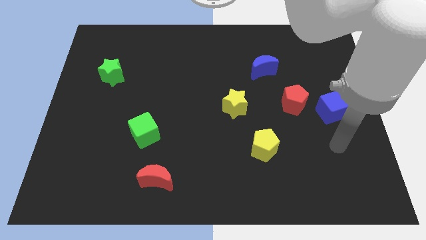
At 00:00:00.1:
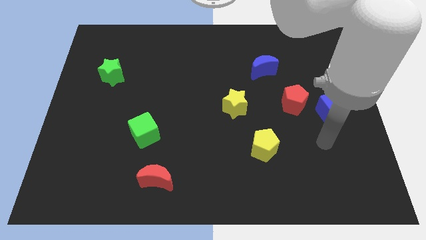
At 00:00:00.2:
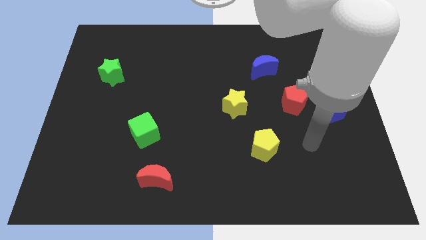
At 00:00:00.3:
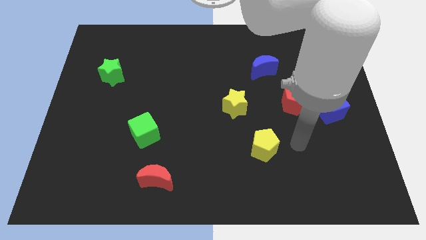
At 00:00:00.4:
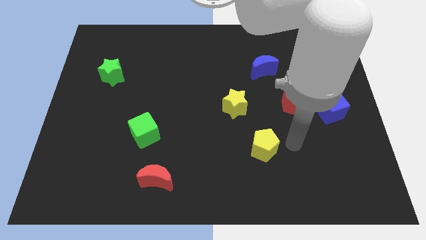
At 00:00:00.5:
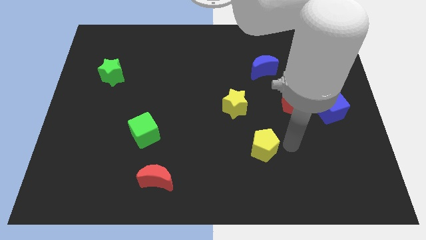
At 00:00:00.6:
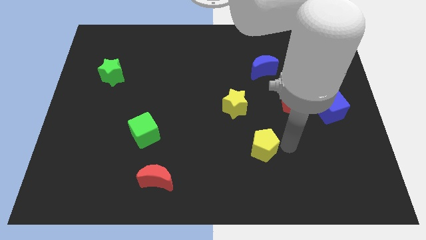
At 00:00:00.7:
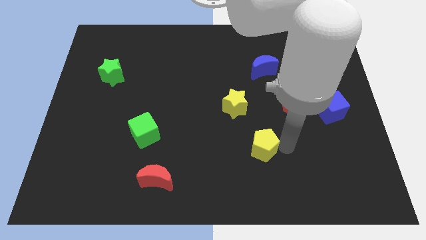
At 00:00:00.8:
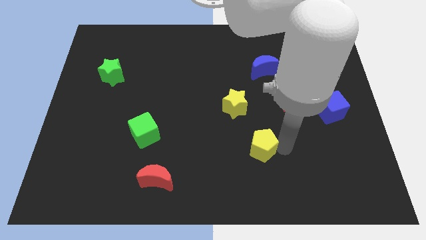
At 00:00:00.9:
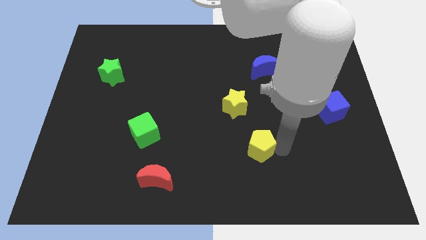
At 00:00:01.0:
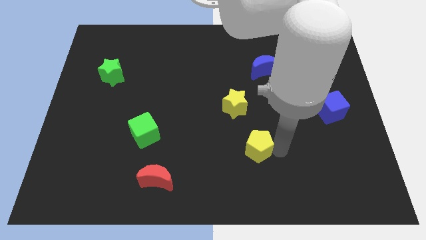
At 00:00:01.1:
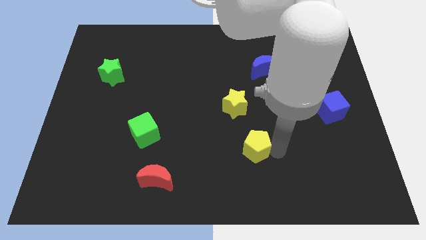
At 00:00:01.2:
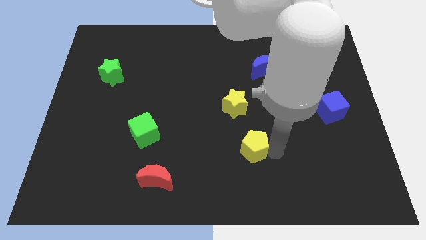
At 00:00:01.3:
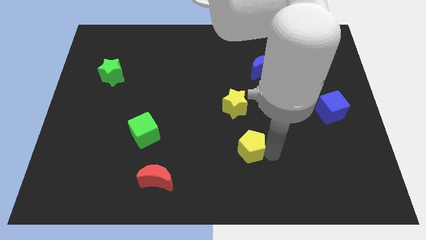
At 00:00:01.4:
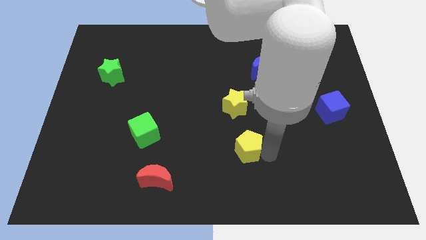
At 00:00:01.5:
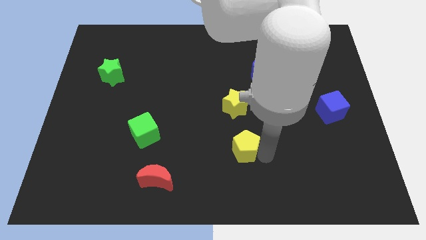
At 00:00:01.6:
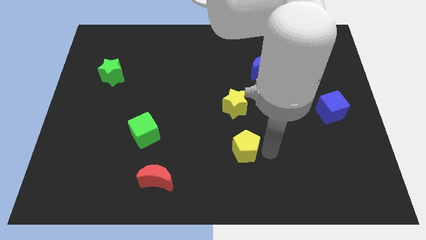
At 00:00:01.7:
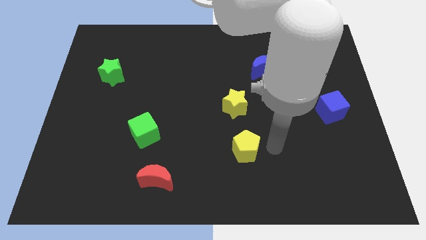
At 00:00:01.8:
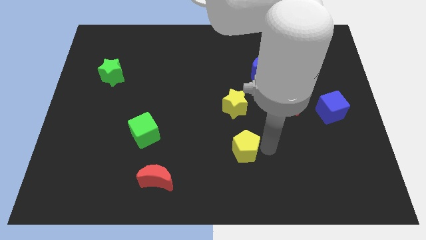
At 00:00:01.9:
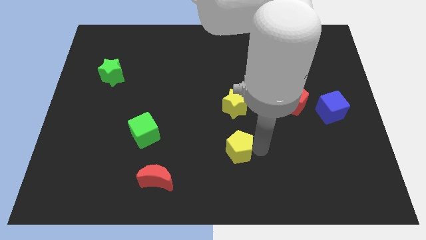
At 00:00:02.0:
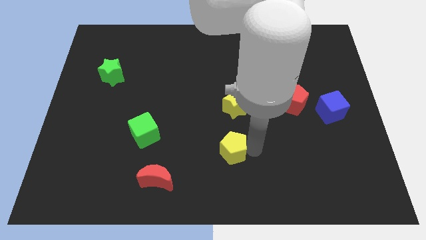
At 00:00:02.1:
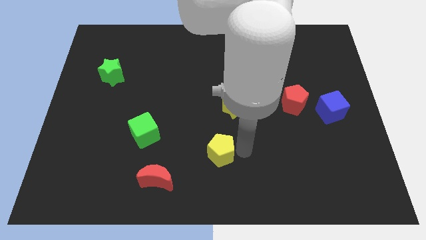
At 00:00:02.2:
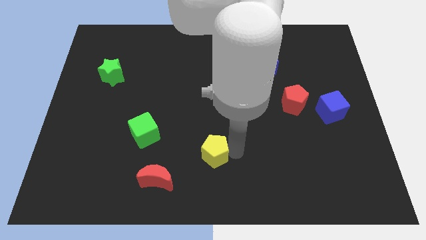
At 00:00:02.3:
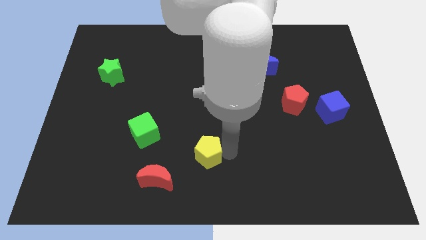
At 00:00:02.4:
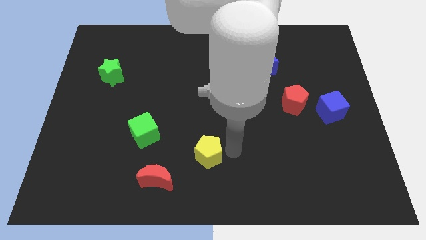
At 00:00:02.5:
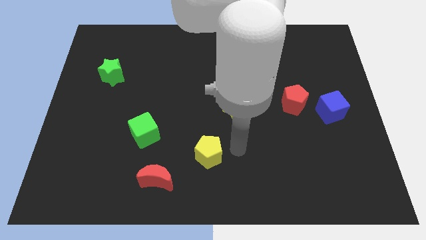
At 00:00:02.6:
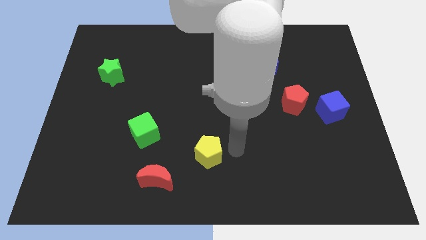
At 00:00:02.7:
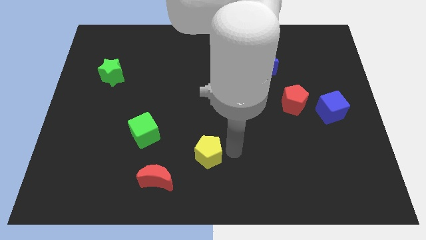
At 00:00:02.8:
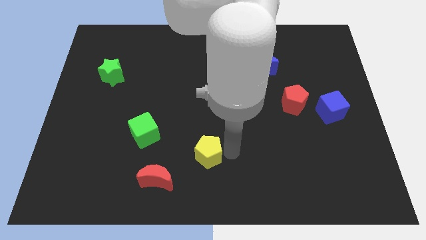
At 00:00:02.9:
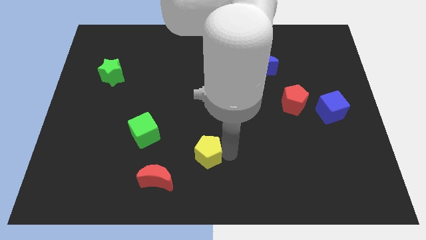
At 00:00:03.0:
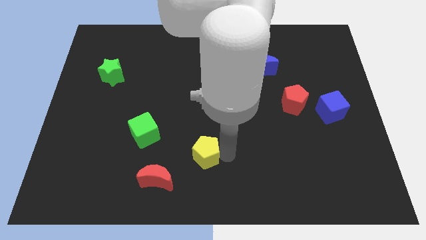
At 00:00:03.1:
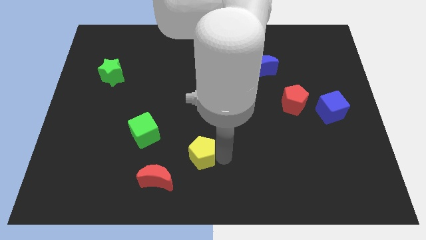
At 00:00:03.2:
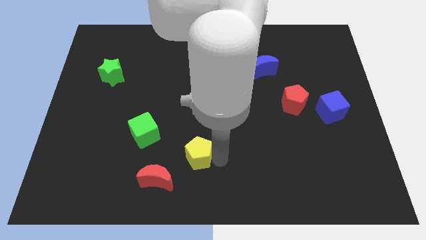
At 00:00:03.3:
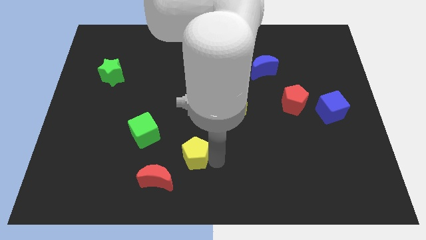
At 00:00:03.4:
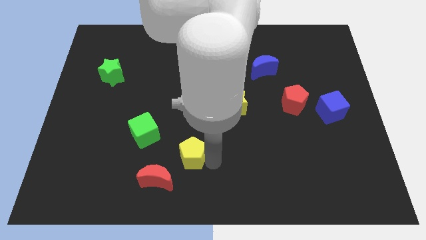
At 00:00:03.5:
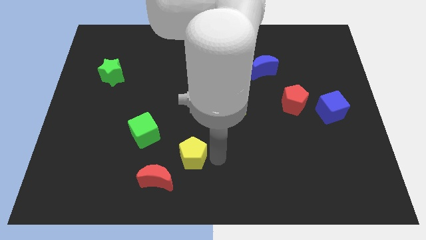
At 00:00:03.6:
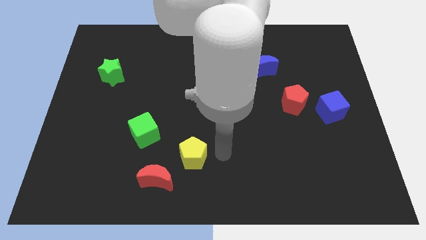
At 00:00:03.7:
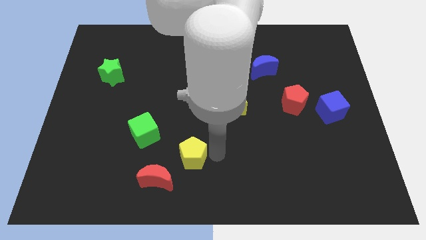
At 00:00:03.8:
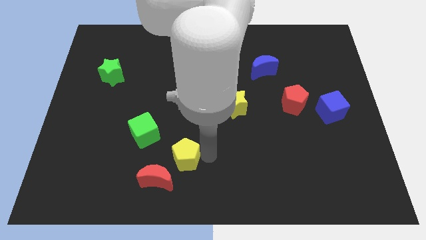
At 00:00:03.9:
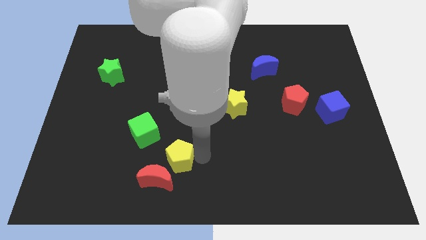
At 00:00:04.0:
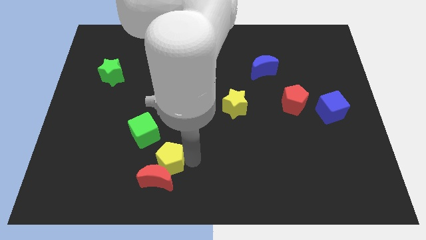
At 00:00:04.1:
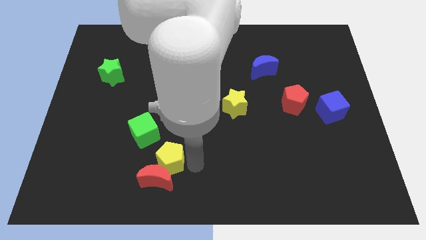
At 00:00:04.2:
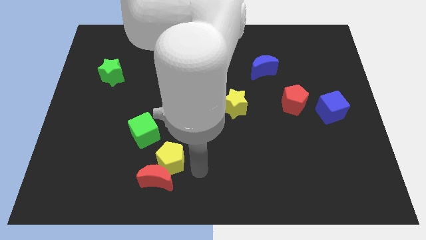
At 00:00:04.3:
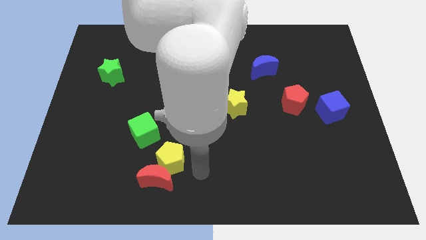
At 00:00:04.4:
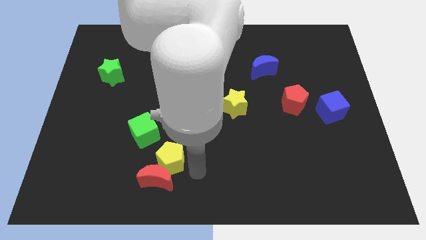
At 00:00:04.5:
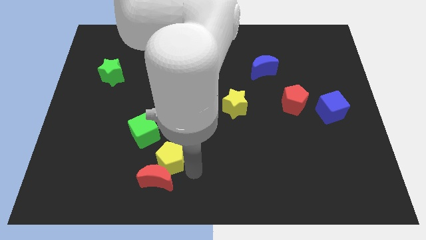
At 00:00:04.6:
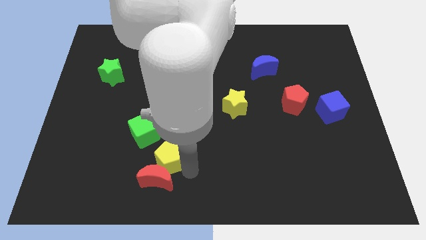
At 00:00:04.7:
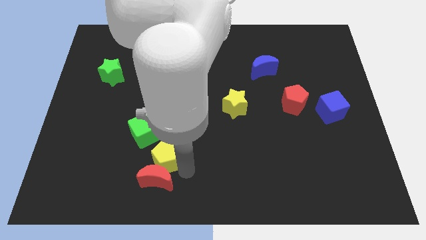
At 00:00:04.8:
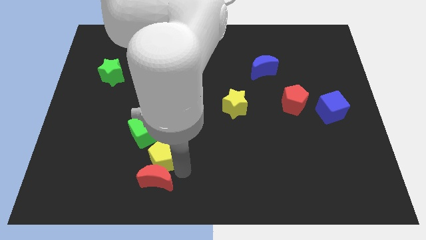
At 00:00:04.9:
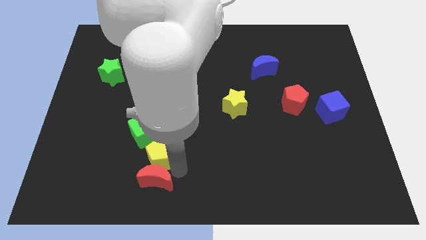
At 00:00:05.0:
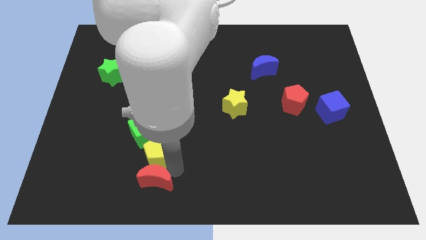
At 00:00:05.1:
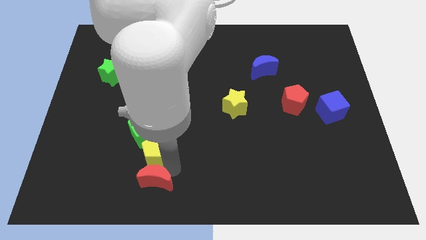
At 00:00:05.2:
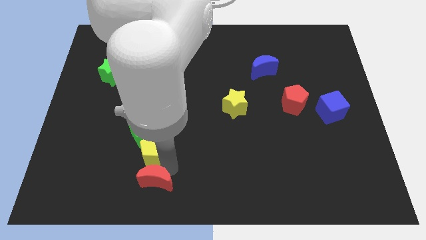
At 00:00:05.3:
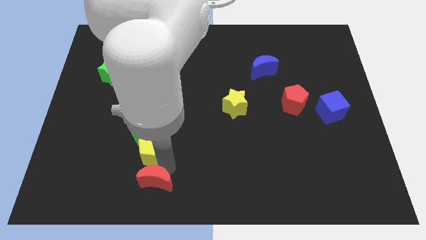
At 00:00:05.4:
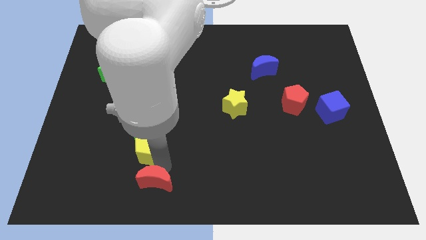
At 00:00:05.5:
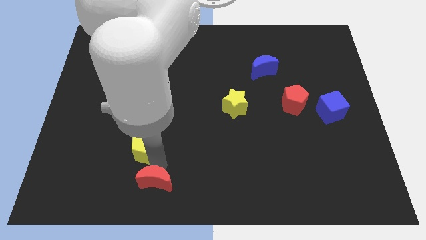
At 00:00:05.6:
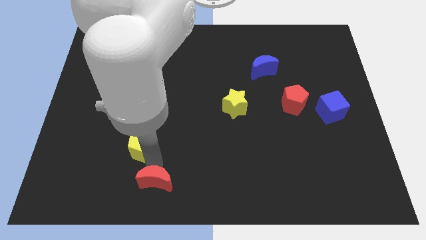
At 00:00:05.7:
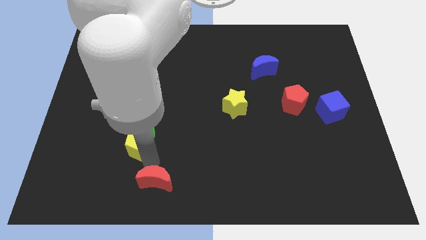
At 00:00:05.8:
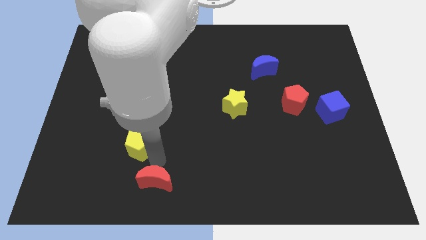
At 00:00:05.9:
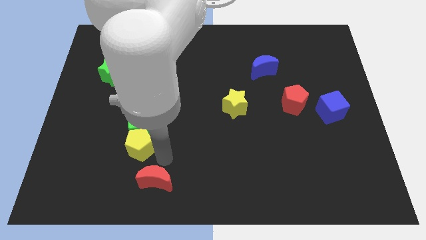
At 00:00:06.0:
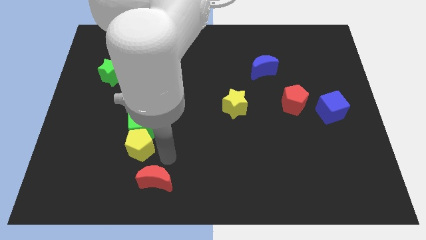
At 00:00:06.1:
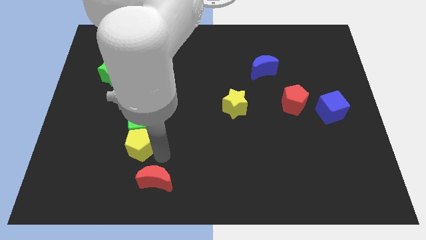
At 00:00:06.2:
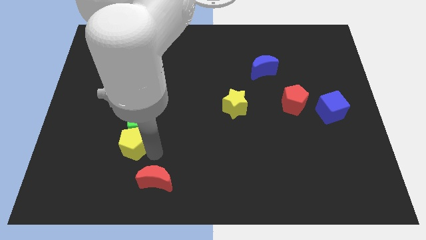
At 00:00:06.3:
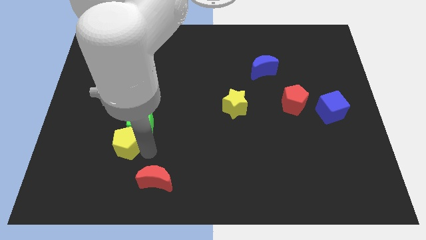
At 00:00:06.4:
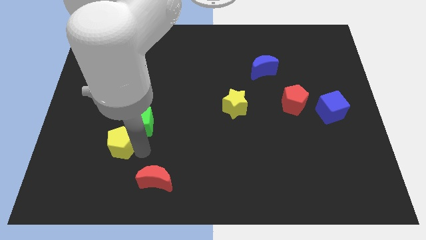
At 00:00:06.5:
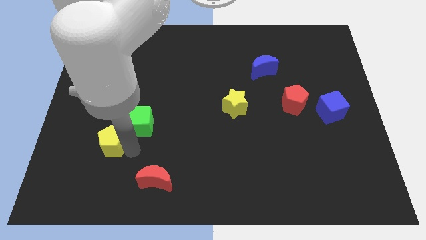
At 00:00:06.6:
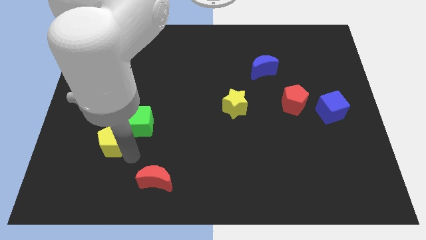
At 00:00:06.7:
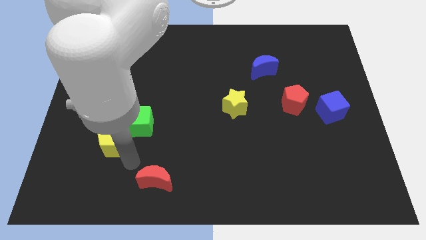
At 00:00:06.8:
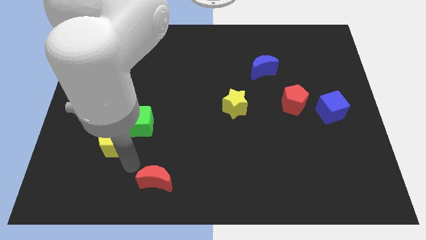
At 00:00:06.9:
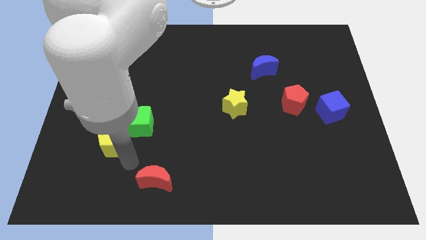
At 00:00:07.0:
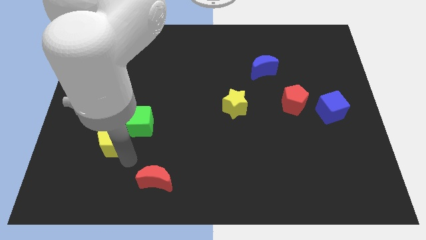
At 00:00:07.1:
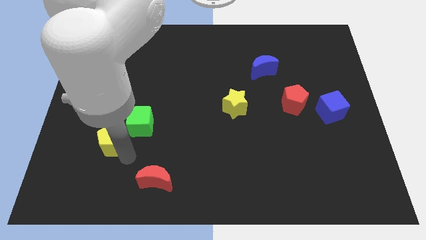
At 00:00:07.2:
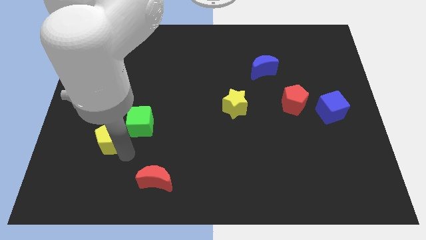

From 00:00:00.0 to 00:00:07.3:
push the yellow pentagon left of the green cube

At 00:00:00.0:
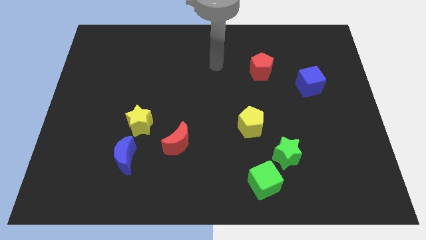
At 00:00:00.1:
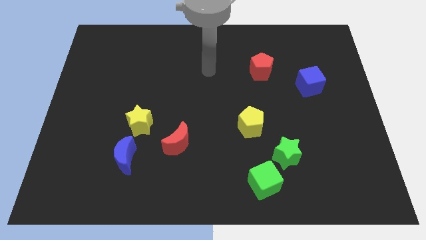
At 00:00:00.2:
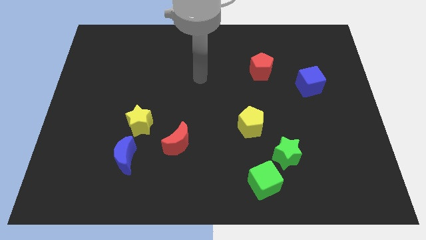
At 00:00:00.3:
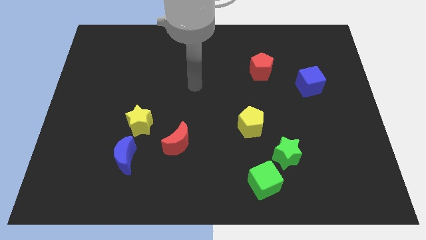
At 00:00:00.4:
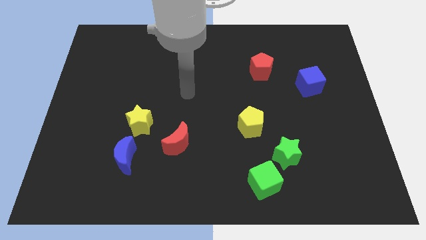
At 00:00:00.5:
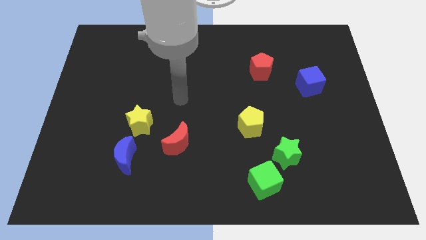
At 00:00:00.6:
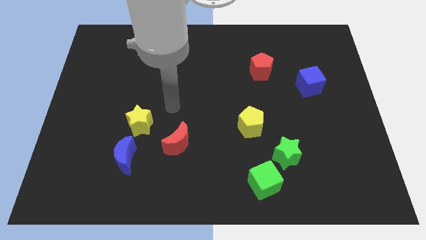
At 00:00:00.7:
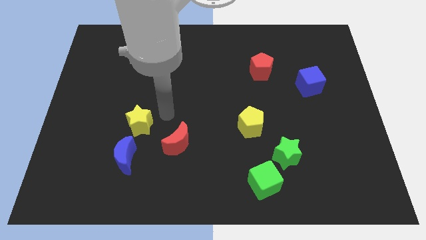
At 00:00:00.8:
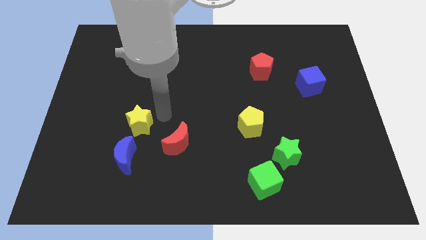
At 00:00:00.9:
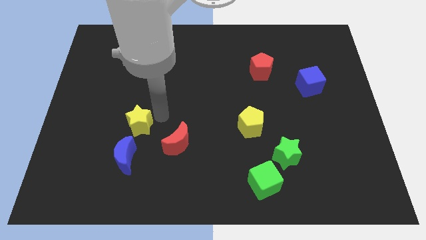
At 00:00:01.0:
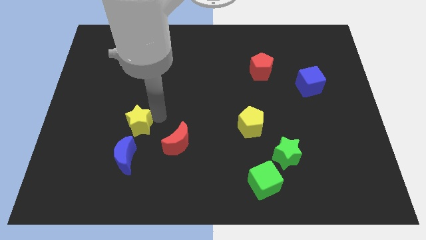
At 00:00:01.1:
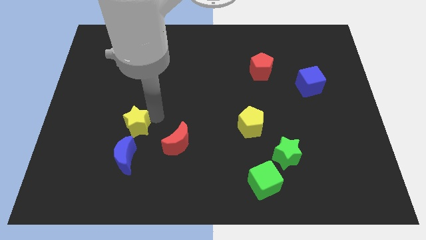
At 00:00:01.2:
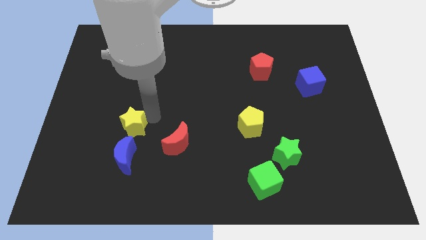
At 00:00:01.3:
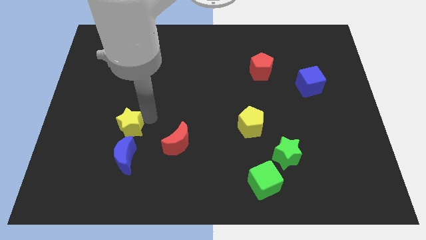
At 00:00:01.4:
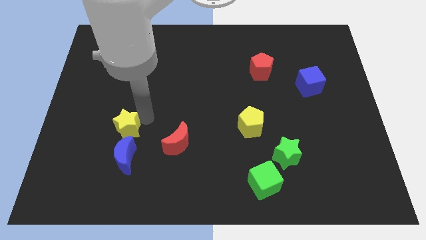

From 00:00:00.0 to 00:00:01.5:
slide the yellow star diagonally up and to the left of the blue moon
